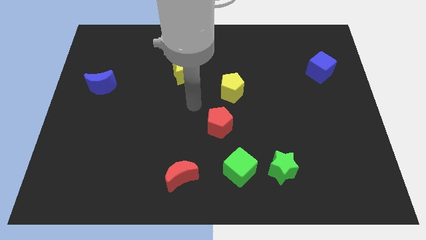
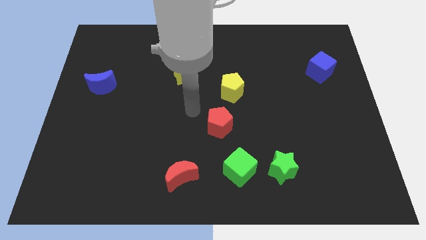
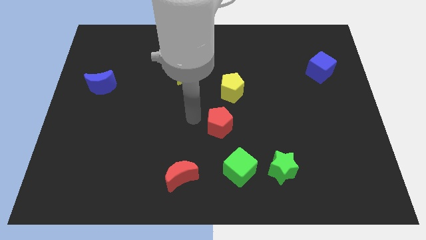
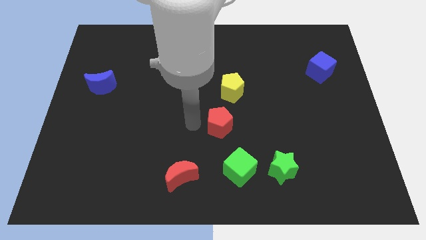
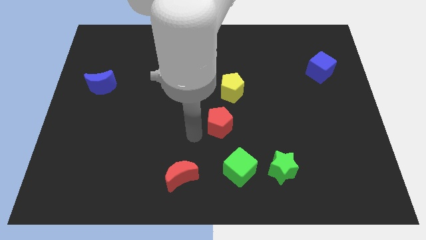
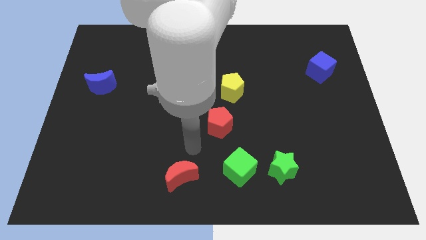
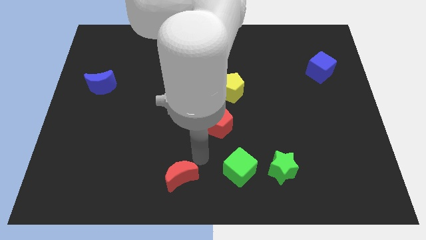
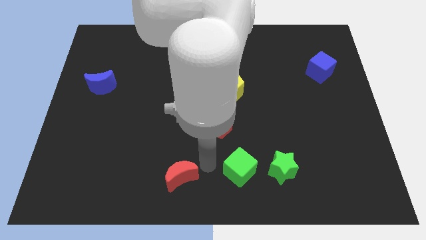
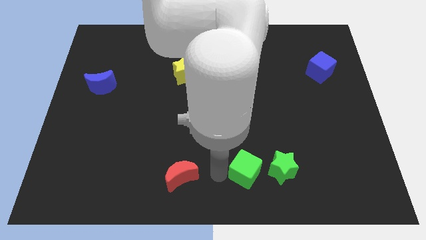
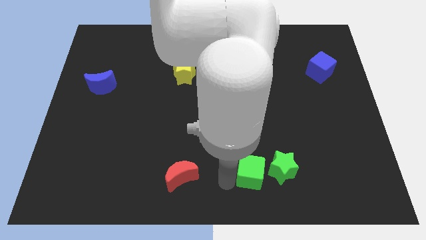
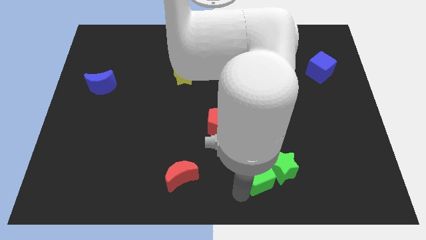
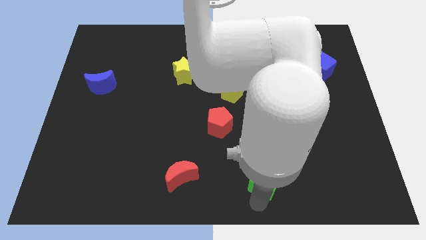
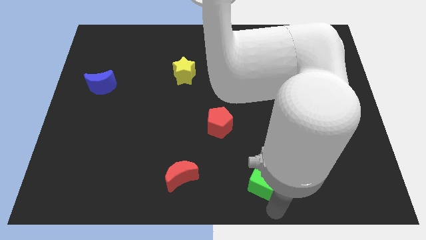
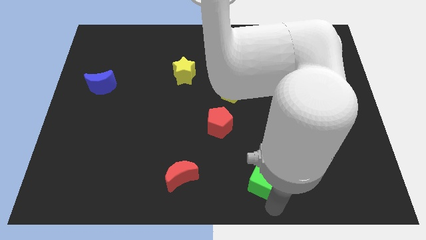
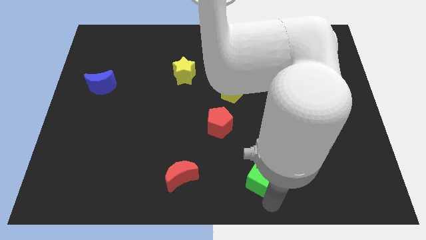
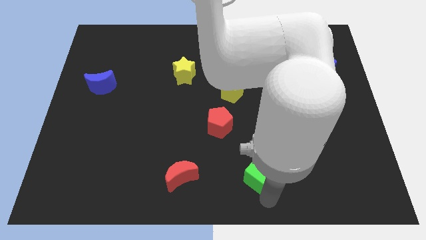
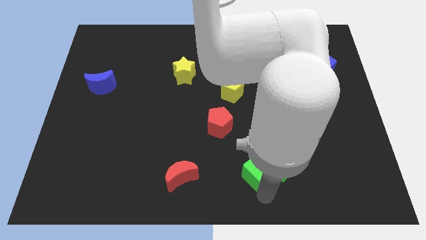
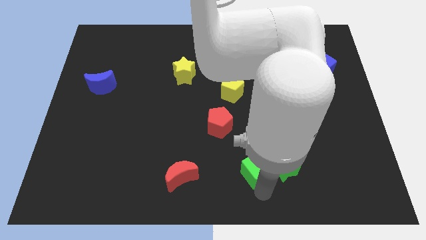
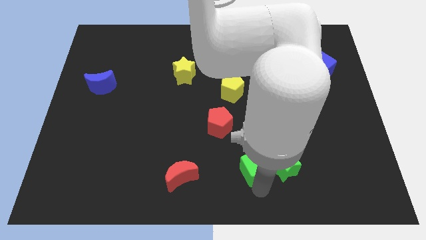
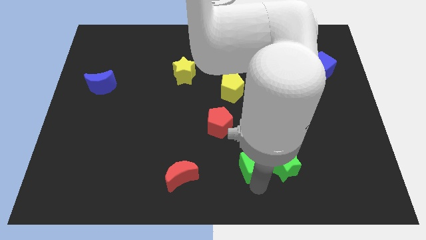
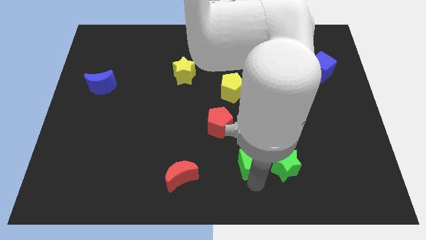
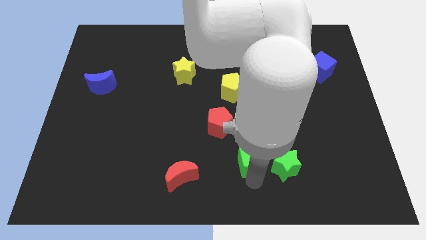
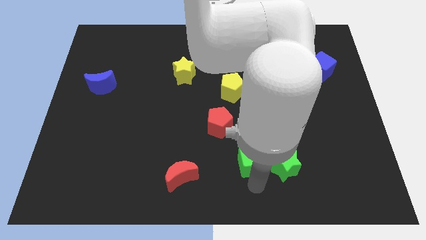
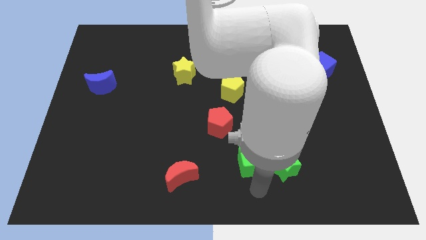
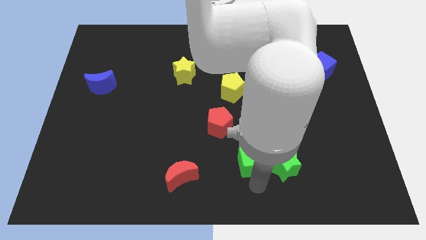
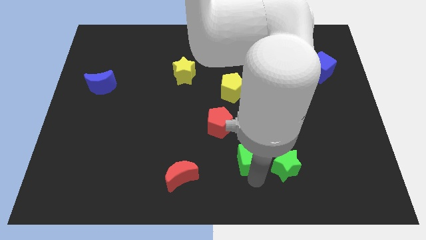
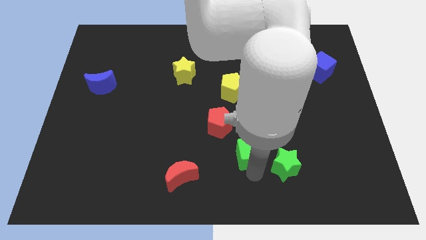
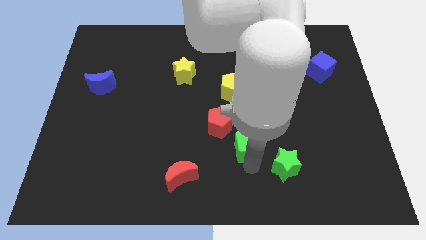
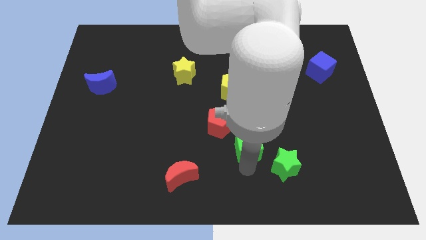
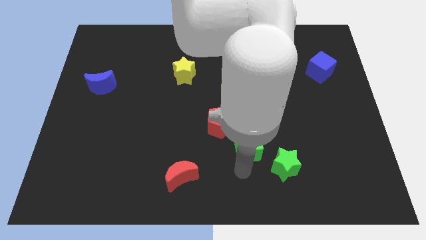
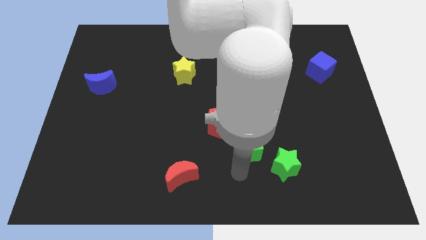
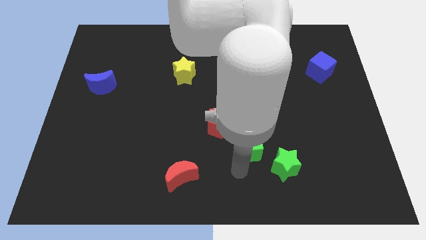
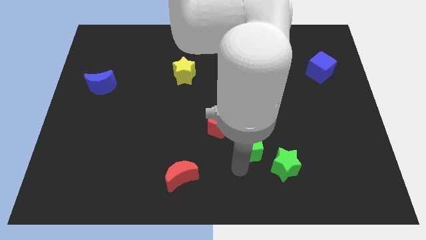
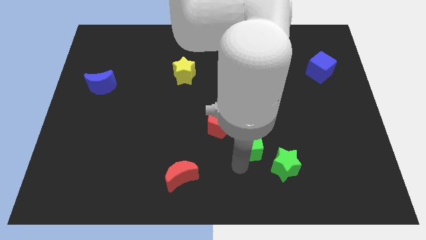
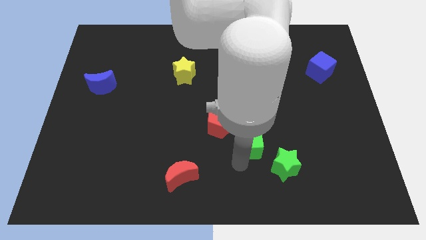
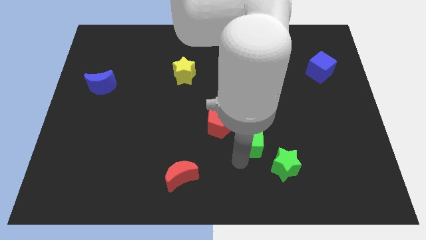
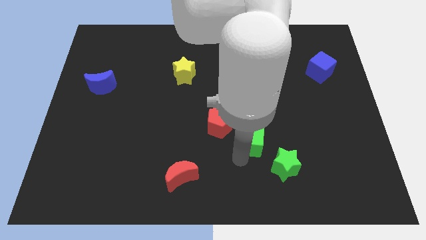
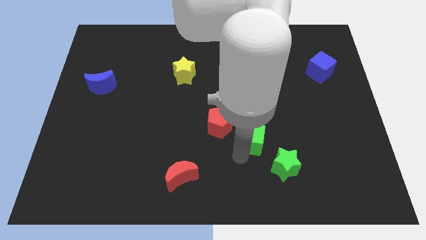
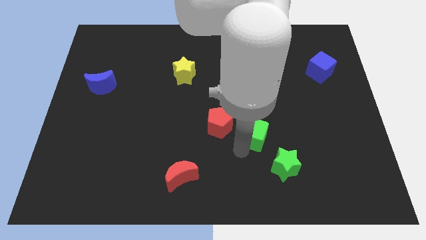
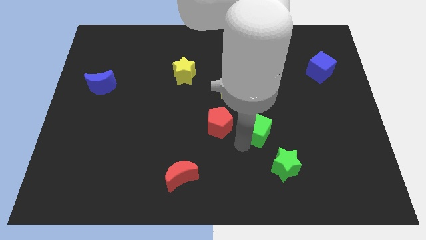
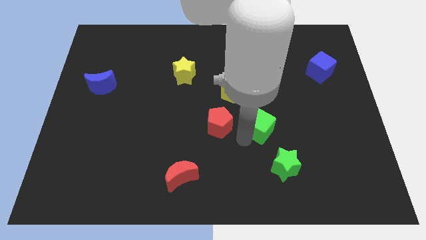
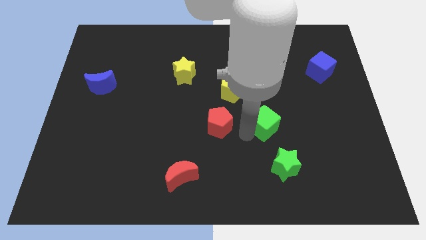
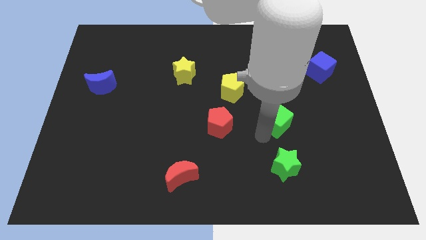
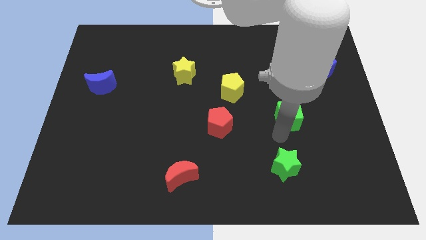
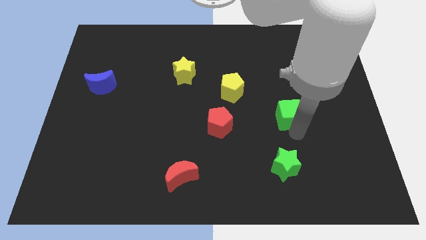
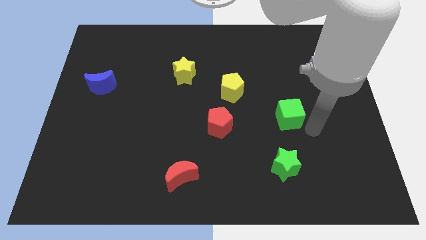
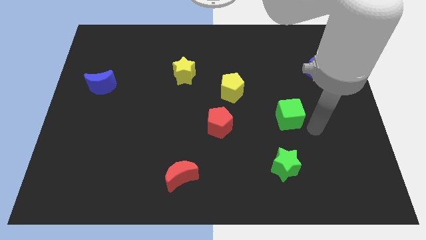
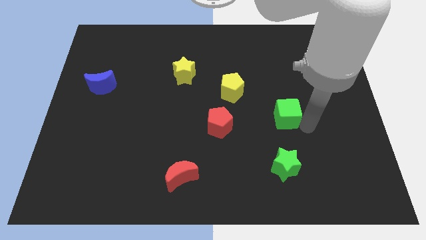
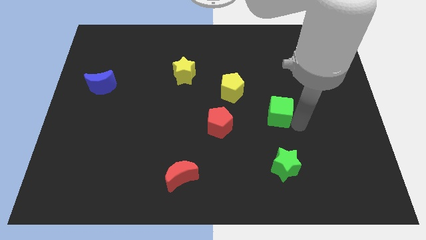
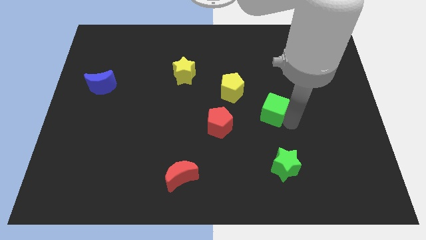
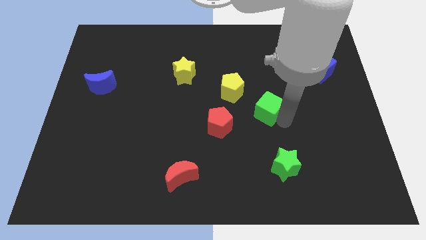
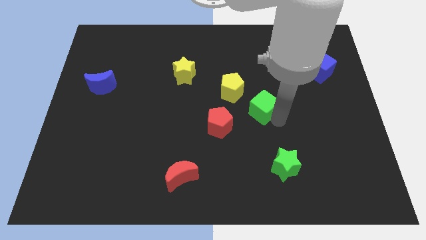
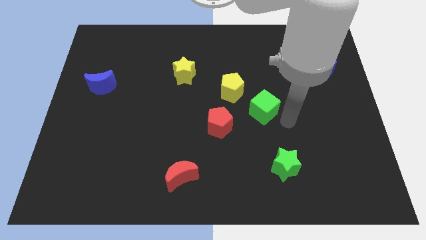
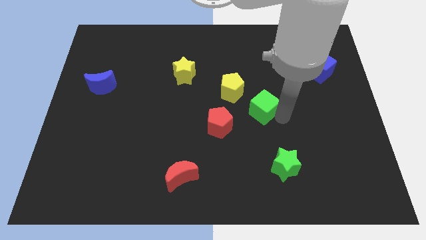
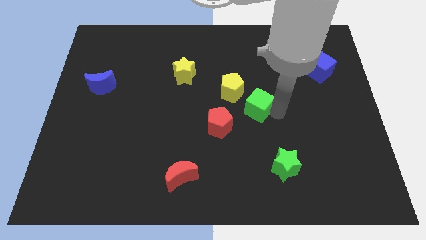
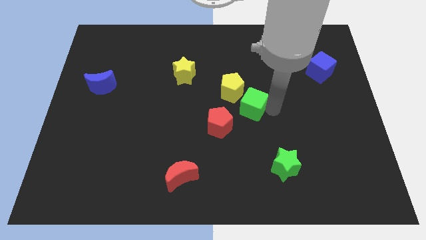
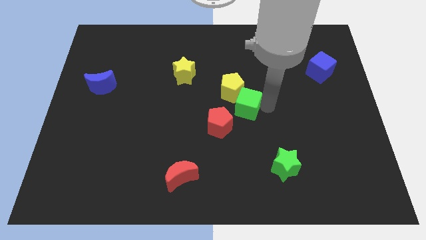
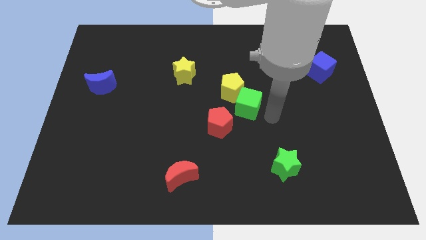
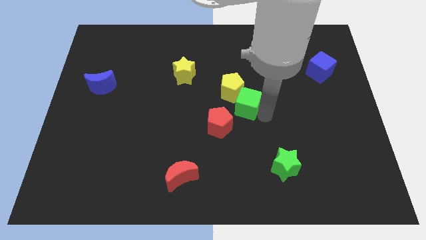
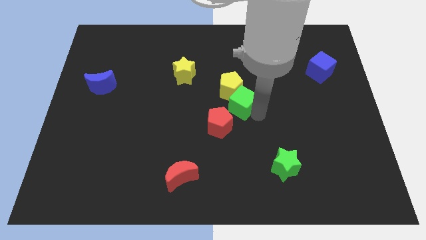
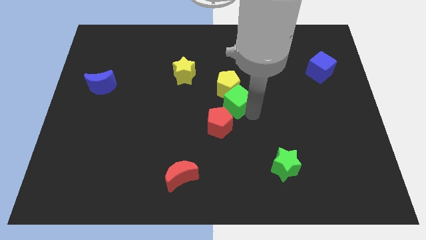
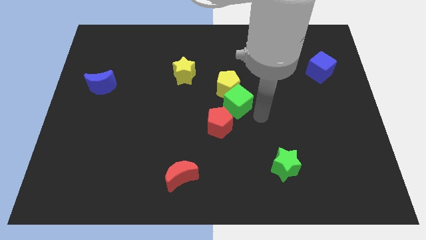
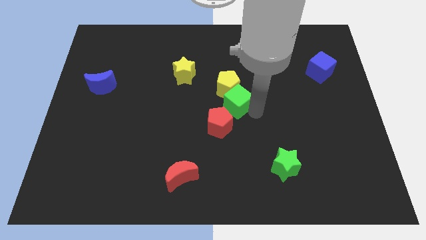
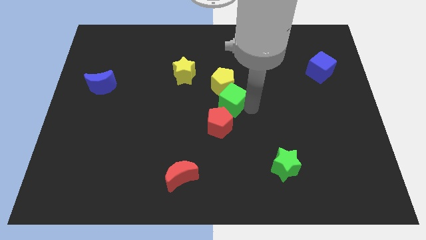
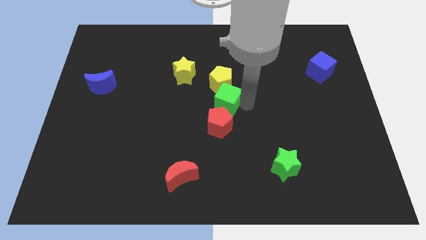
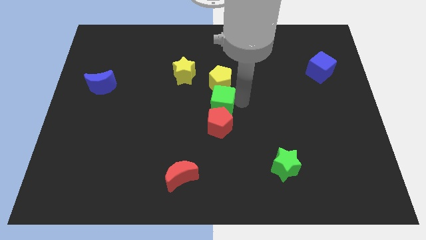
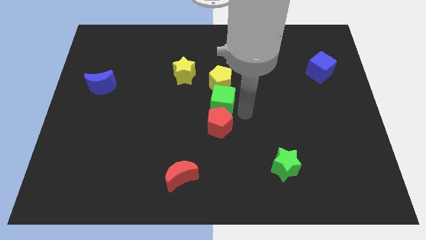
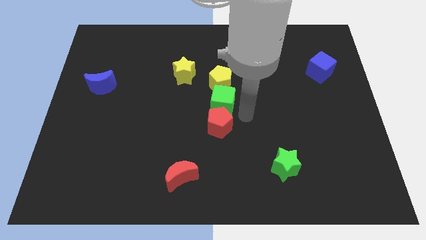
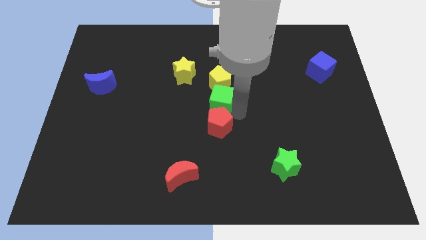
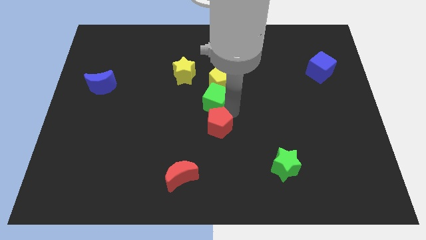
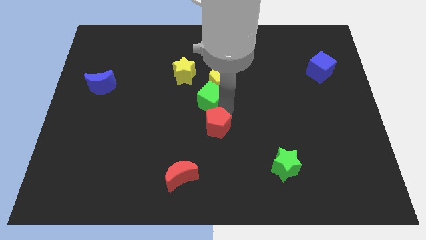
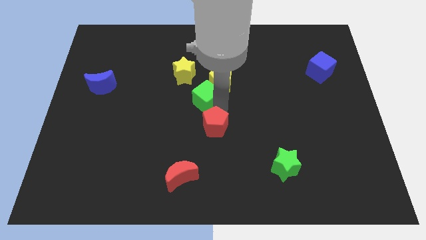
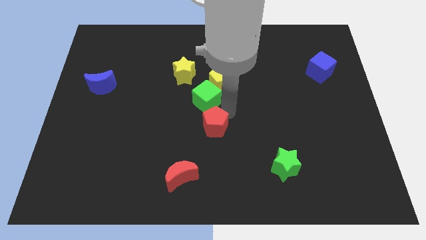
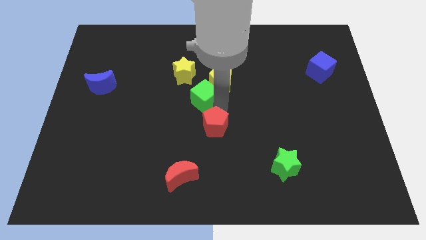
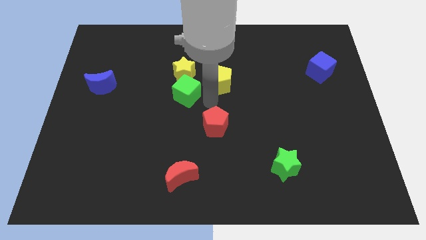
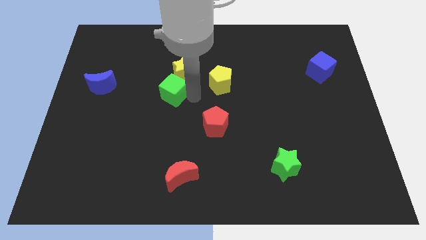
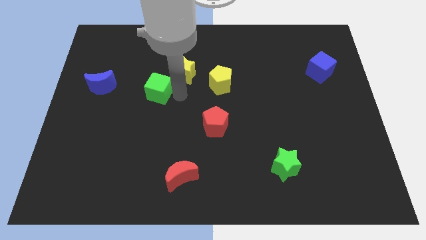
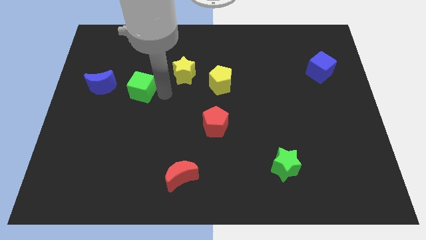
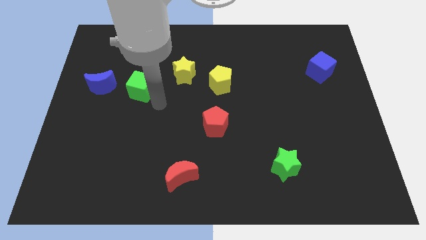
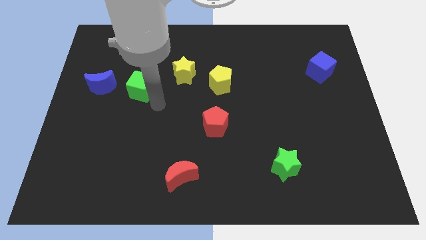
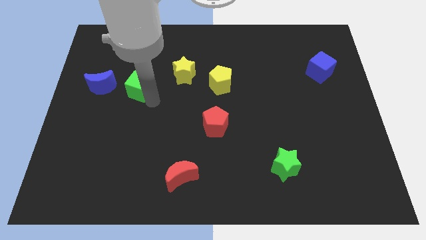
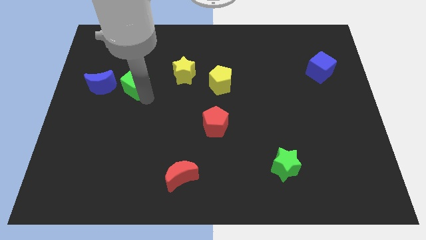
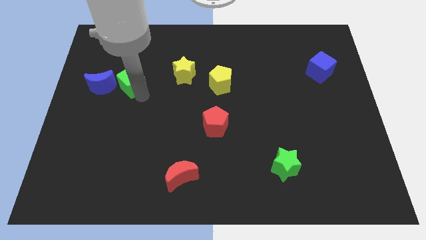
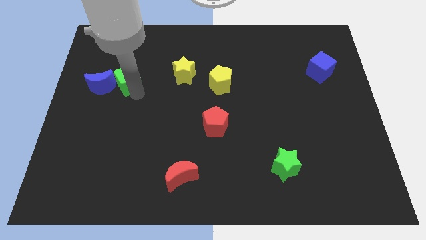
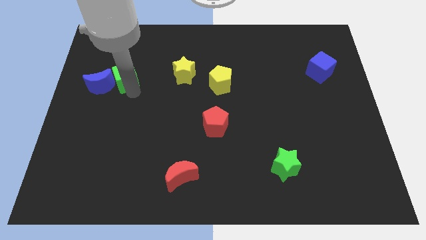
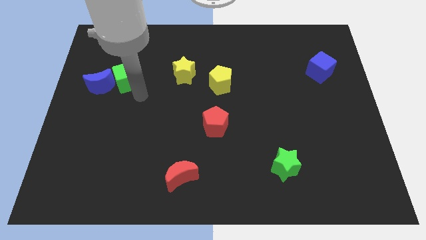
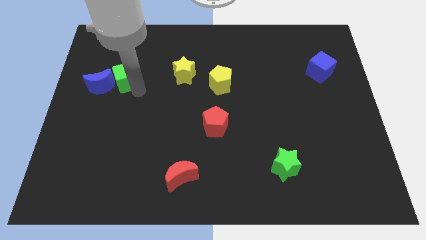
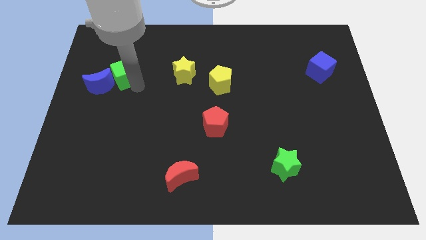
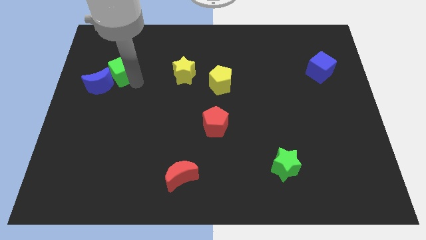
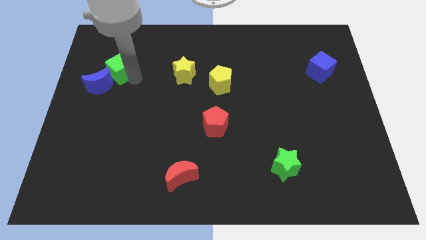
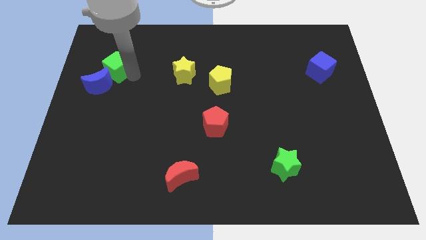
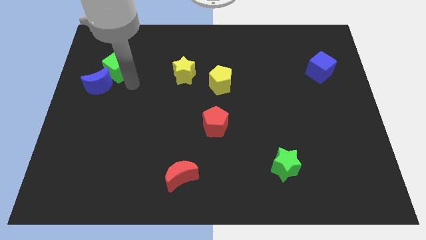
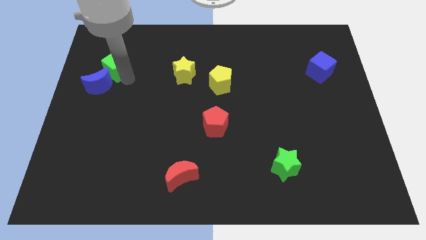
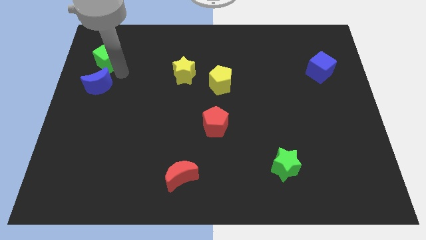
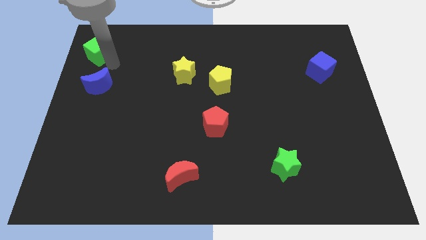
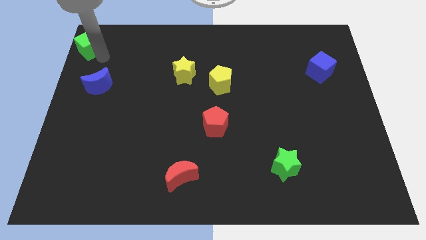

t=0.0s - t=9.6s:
push the green cube to the upper left corner
